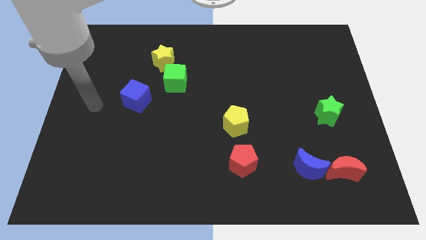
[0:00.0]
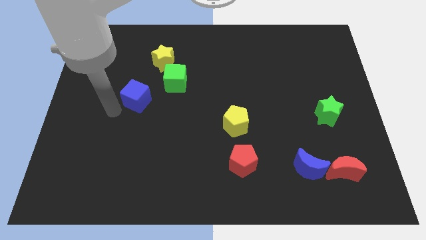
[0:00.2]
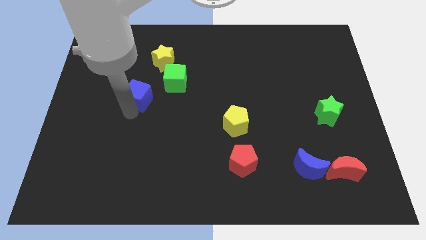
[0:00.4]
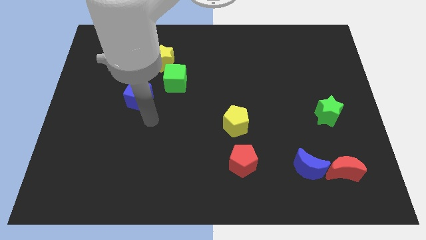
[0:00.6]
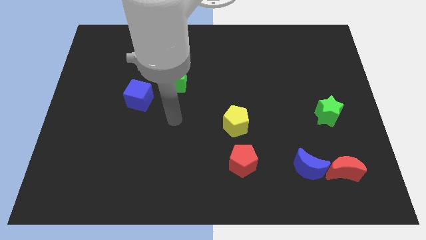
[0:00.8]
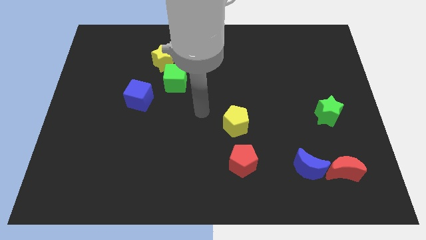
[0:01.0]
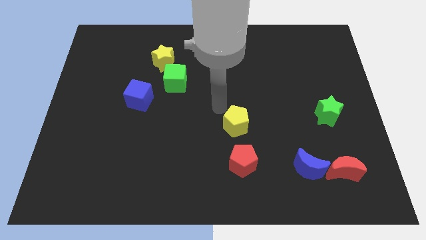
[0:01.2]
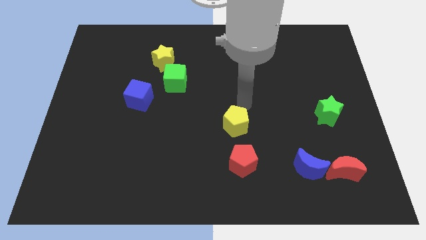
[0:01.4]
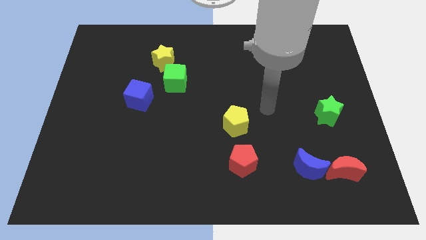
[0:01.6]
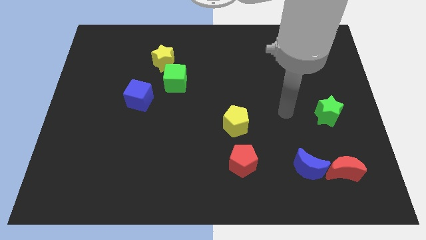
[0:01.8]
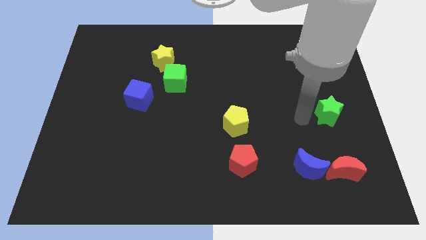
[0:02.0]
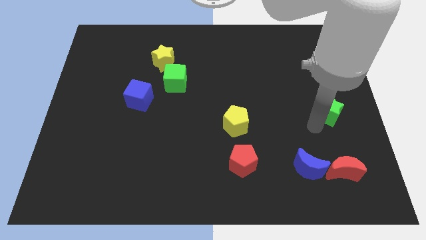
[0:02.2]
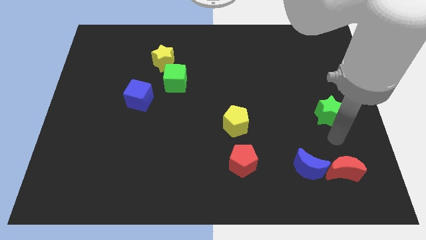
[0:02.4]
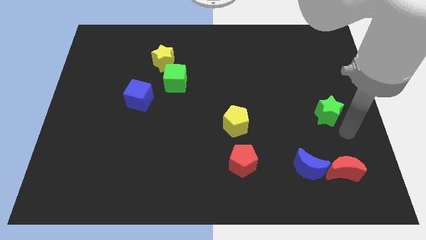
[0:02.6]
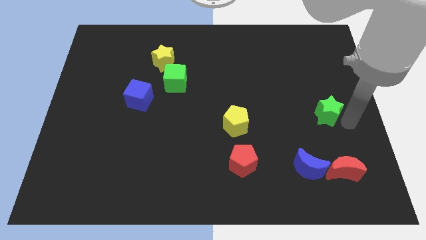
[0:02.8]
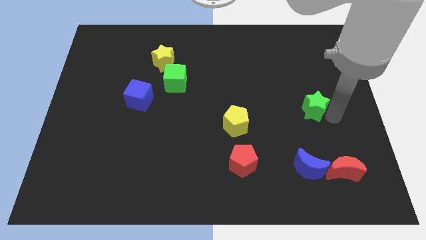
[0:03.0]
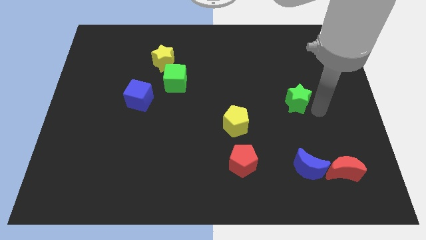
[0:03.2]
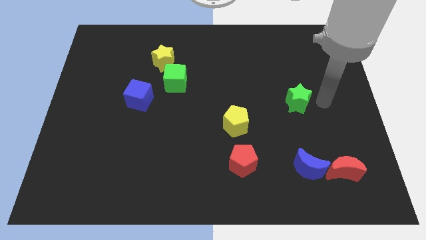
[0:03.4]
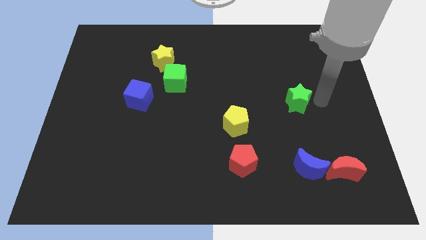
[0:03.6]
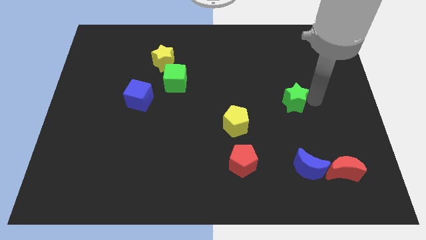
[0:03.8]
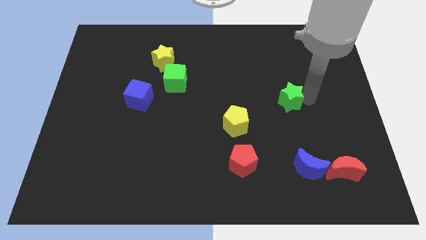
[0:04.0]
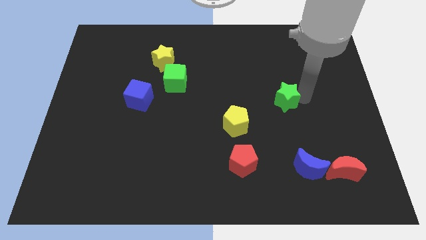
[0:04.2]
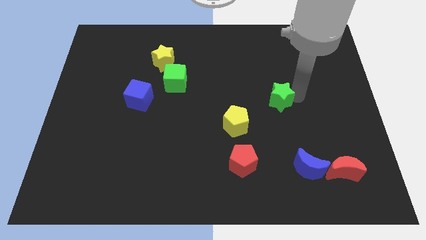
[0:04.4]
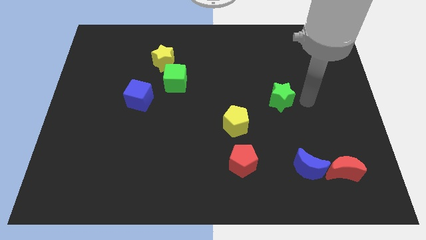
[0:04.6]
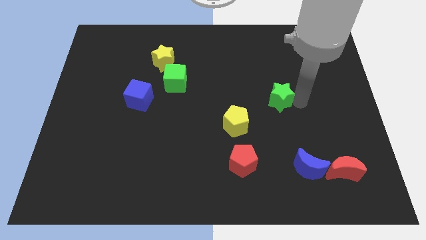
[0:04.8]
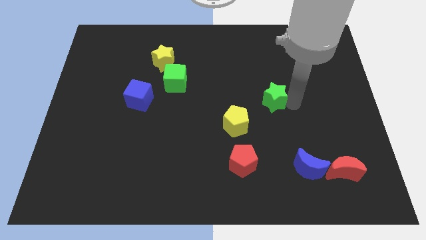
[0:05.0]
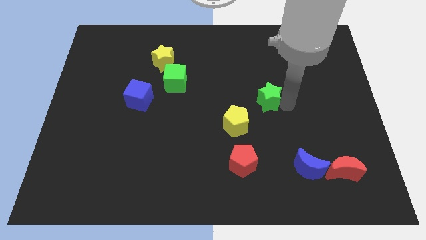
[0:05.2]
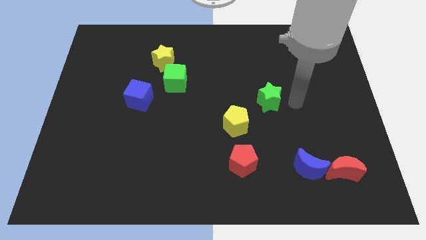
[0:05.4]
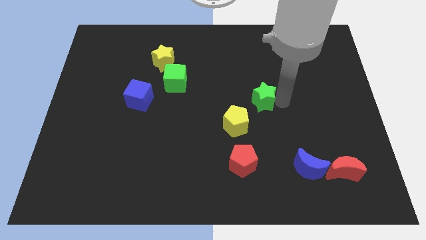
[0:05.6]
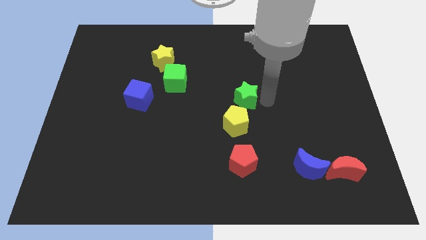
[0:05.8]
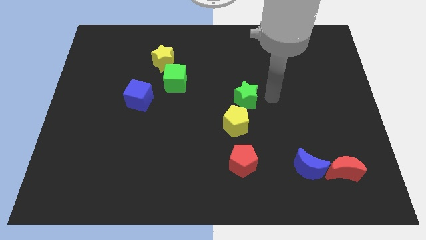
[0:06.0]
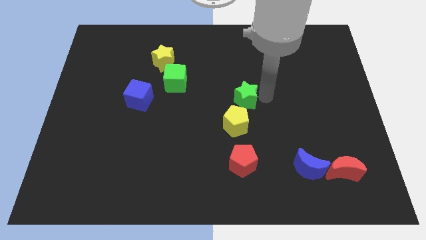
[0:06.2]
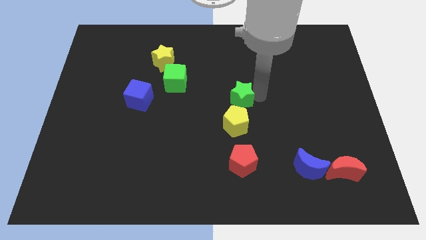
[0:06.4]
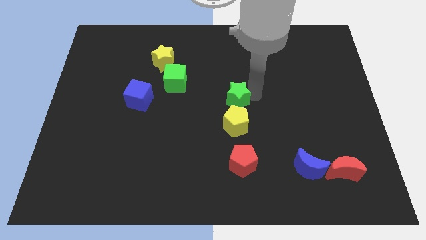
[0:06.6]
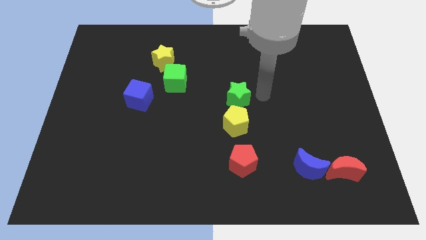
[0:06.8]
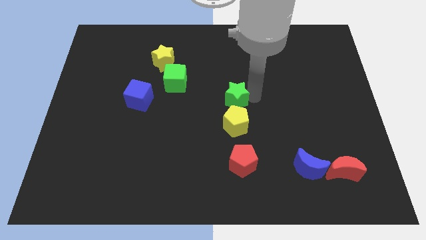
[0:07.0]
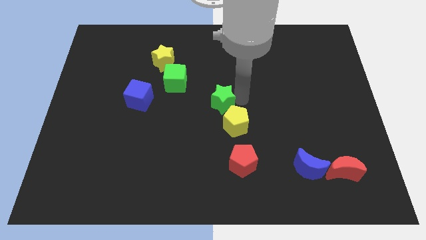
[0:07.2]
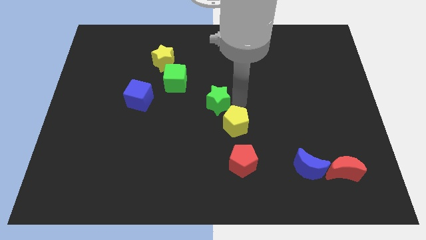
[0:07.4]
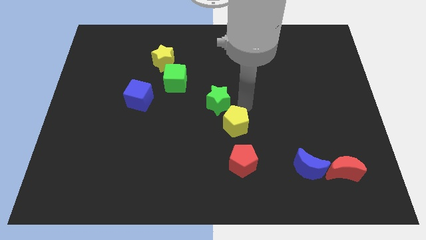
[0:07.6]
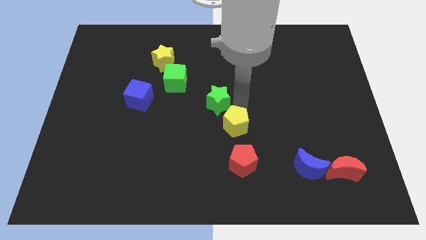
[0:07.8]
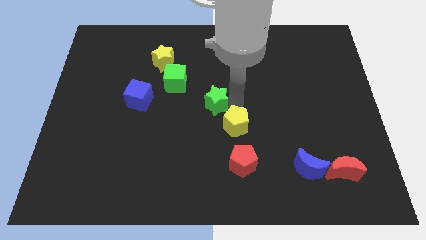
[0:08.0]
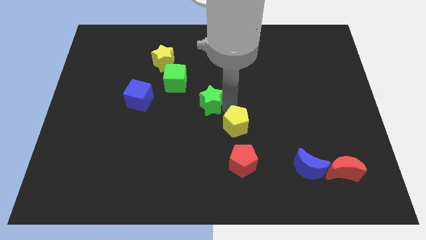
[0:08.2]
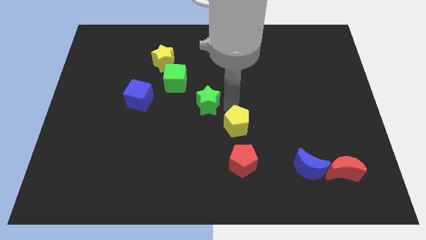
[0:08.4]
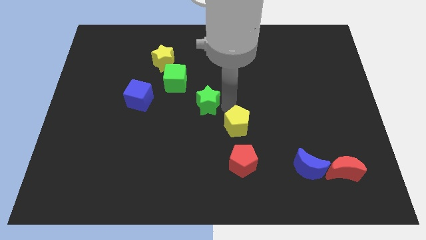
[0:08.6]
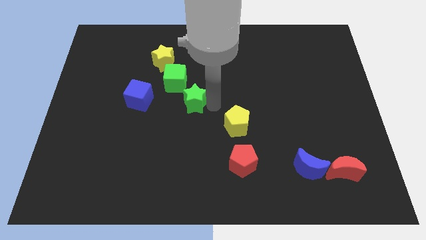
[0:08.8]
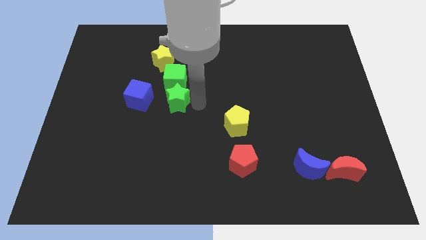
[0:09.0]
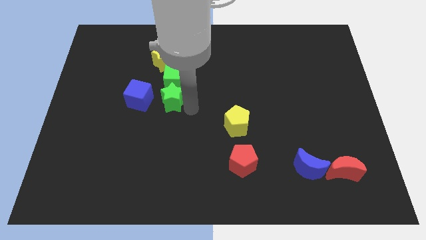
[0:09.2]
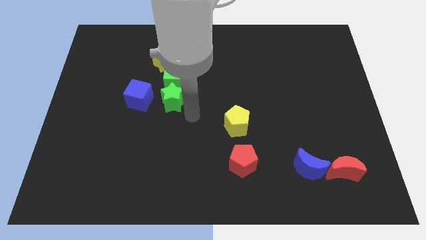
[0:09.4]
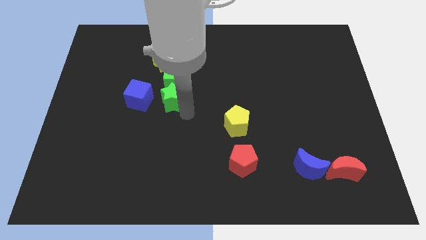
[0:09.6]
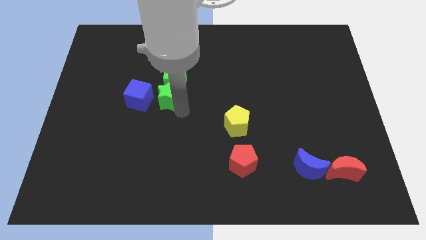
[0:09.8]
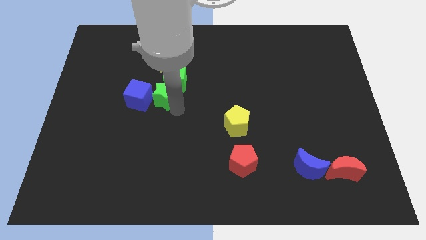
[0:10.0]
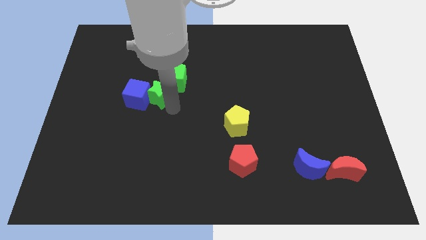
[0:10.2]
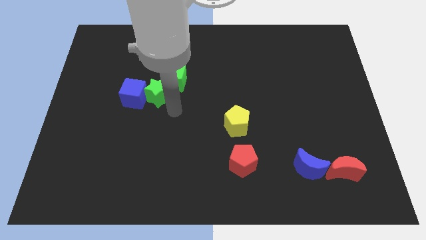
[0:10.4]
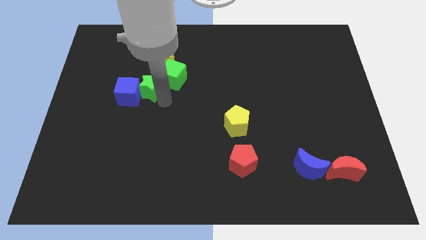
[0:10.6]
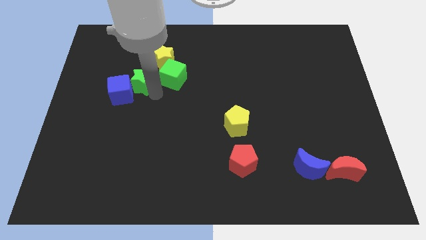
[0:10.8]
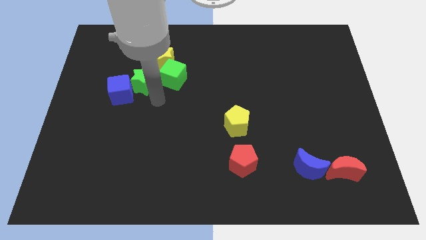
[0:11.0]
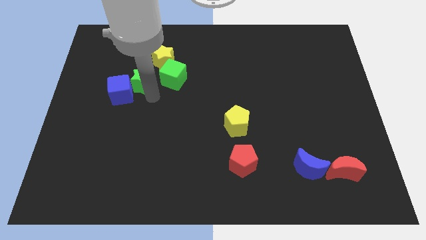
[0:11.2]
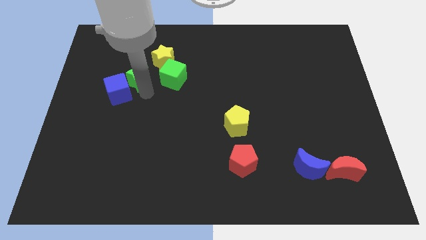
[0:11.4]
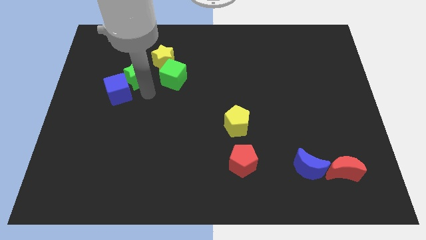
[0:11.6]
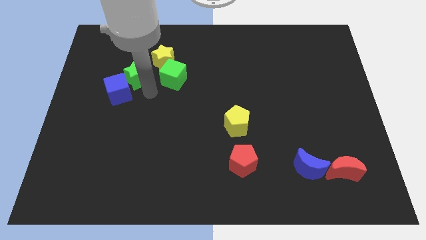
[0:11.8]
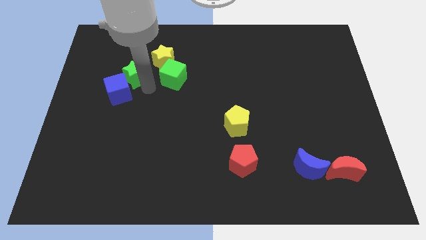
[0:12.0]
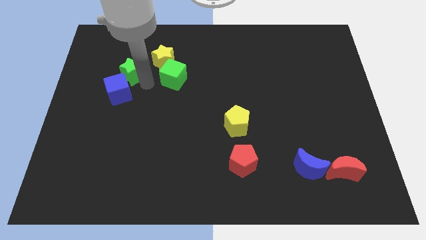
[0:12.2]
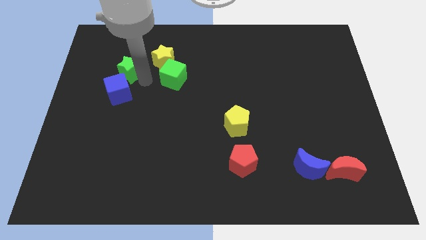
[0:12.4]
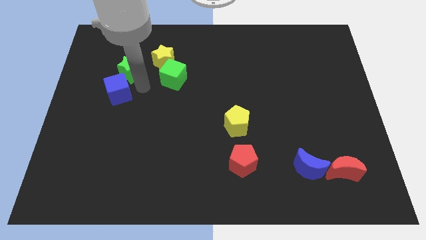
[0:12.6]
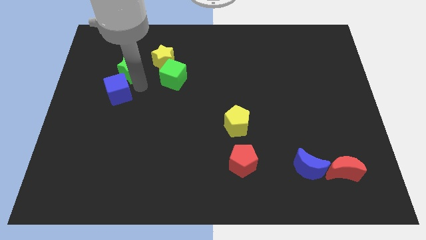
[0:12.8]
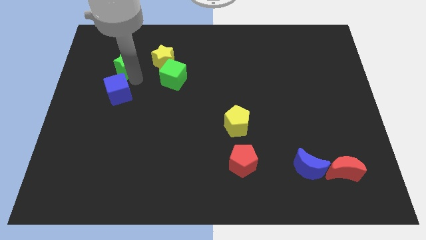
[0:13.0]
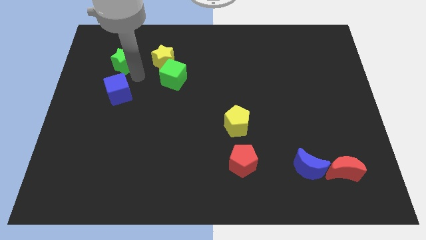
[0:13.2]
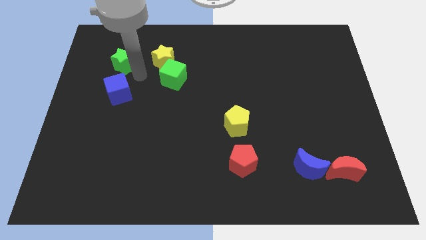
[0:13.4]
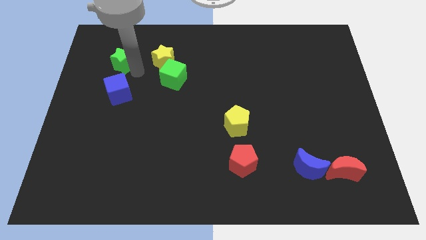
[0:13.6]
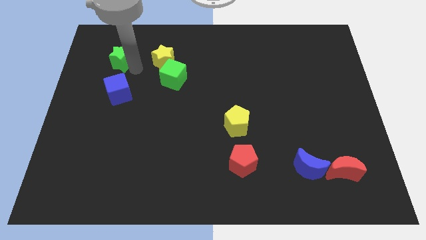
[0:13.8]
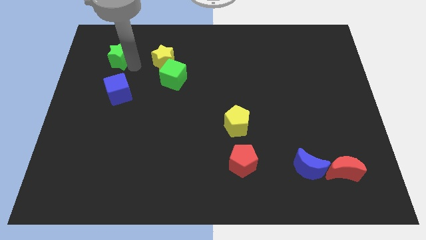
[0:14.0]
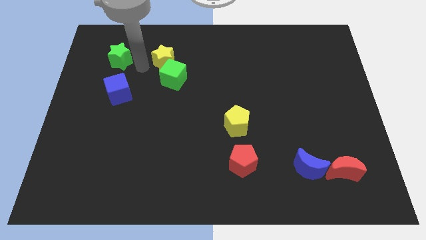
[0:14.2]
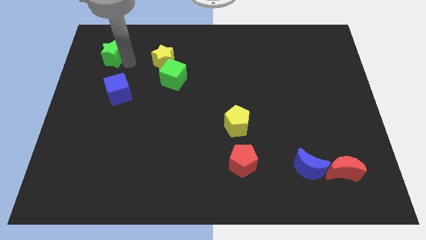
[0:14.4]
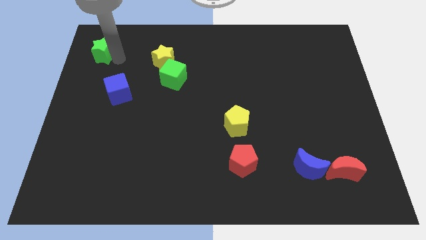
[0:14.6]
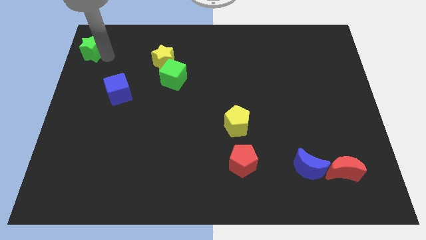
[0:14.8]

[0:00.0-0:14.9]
slide the green star to the top left of the board
